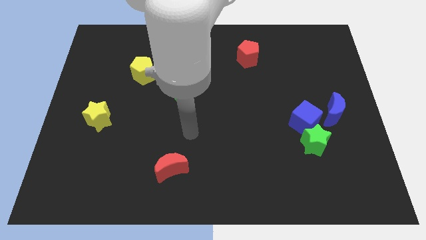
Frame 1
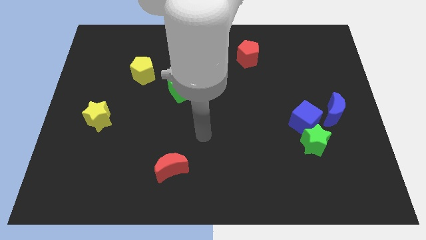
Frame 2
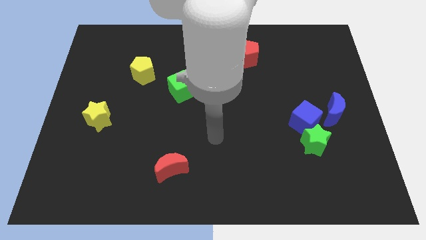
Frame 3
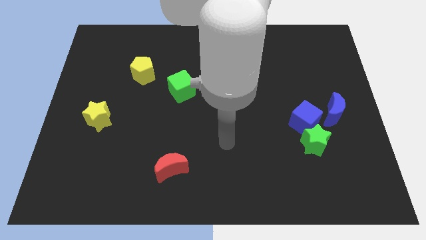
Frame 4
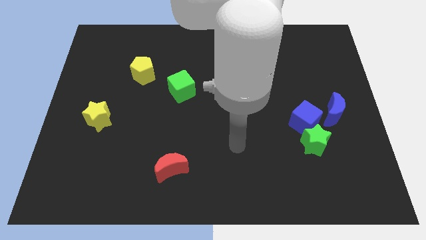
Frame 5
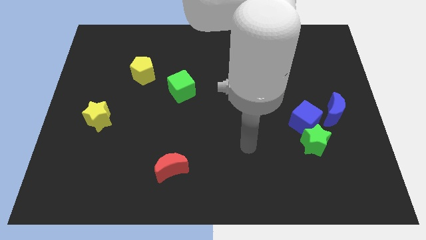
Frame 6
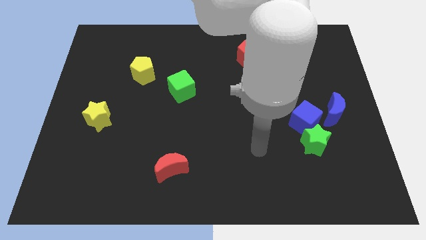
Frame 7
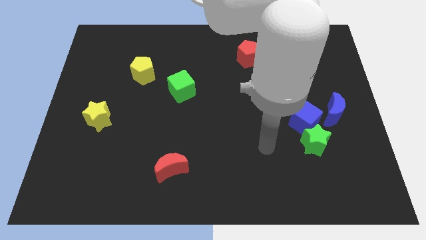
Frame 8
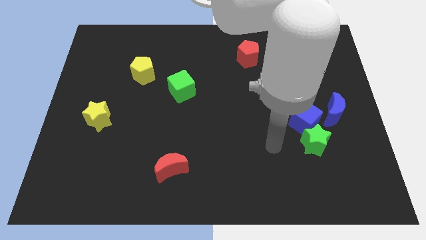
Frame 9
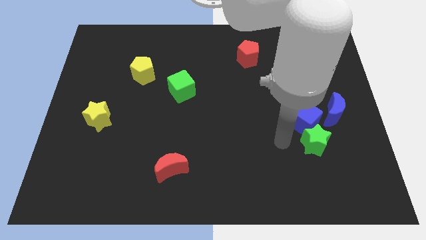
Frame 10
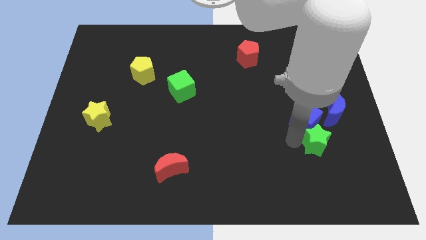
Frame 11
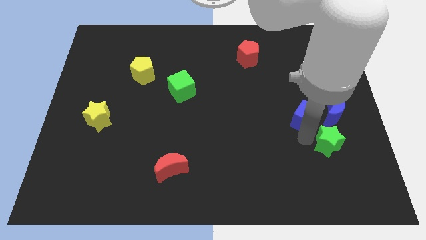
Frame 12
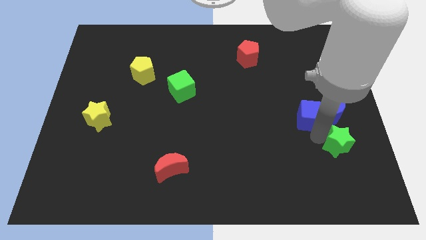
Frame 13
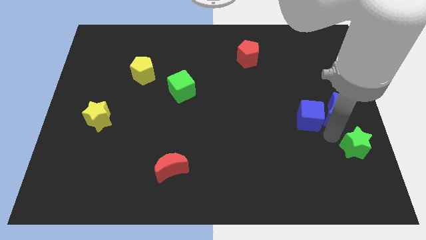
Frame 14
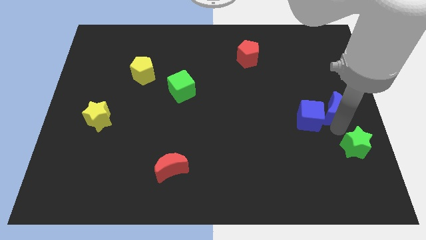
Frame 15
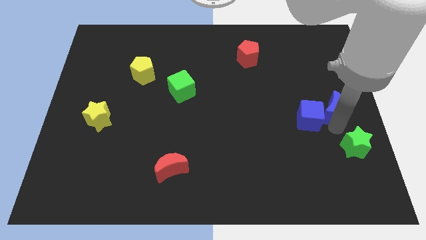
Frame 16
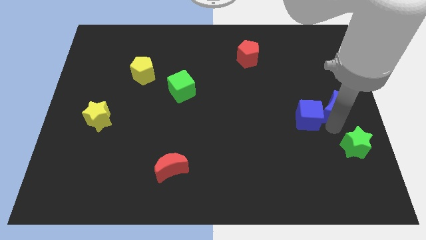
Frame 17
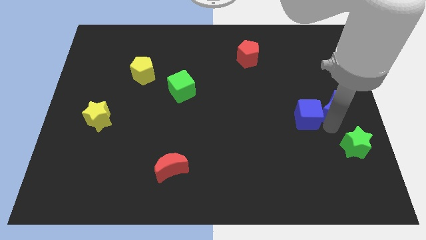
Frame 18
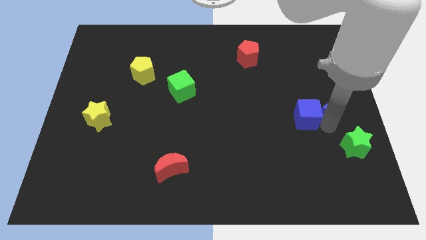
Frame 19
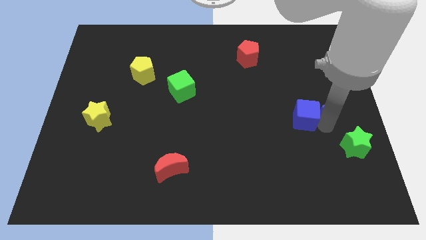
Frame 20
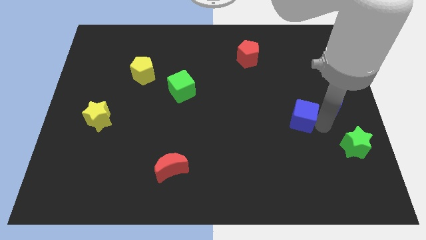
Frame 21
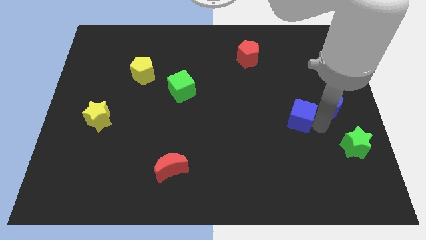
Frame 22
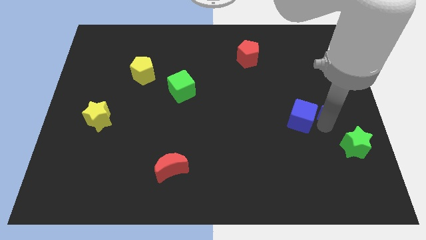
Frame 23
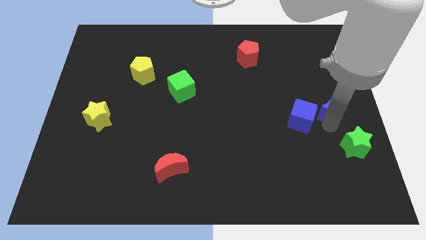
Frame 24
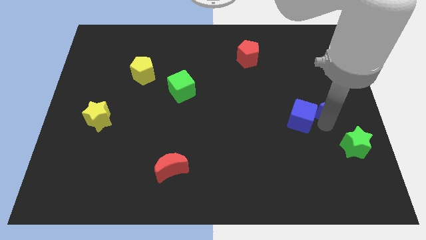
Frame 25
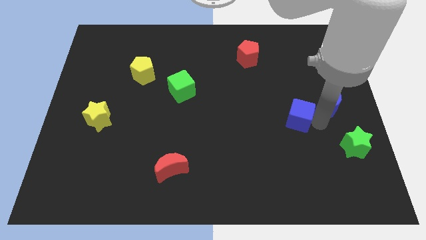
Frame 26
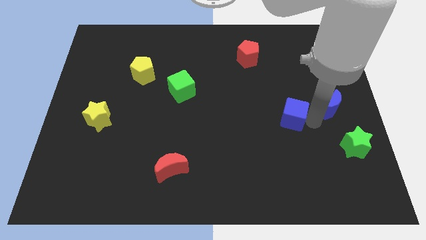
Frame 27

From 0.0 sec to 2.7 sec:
pull the blue cube apart from the green star and blue moon

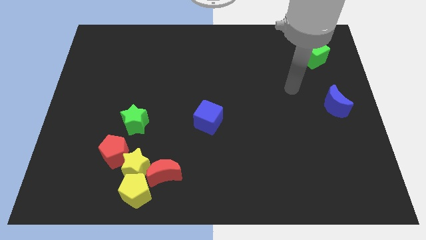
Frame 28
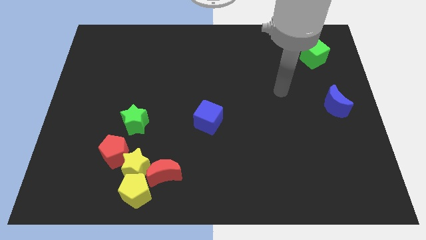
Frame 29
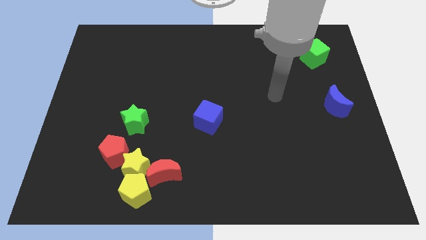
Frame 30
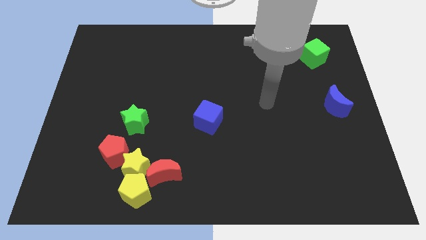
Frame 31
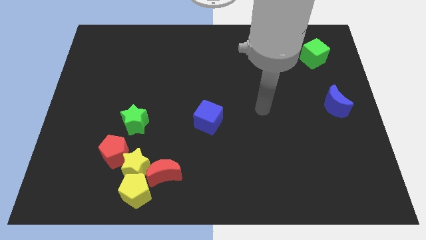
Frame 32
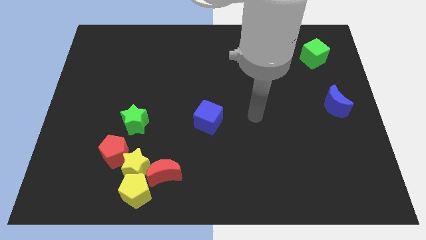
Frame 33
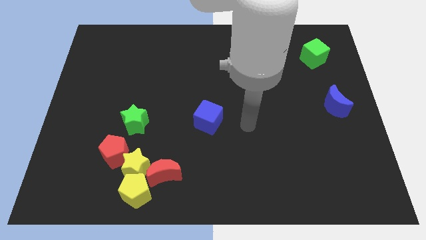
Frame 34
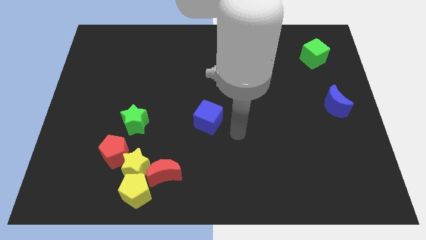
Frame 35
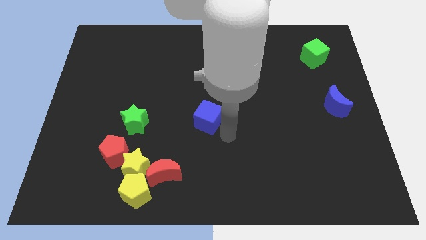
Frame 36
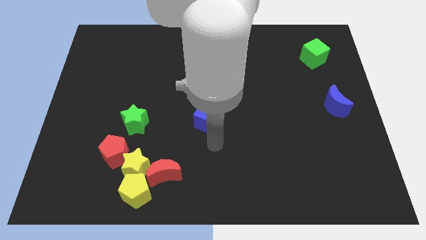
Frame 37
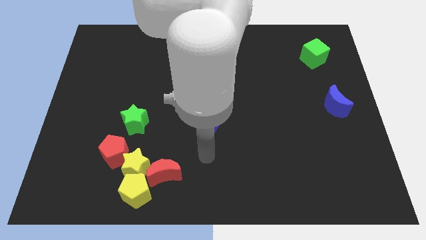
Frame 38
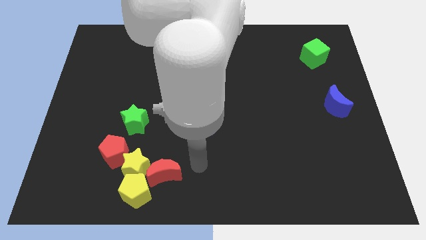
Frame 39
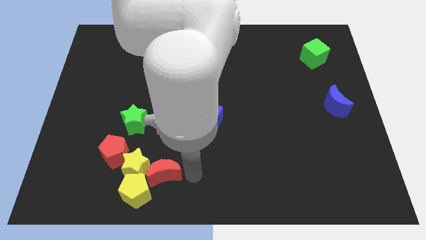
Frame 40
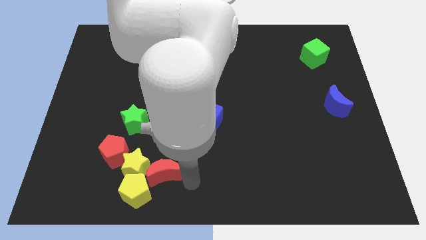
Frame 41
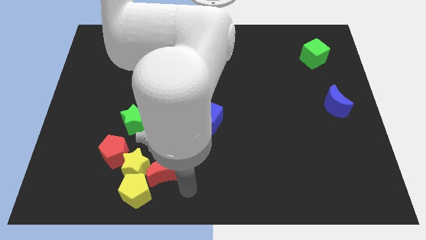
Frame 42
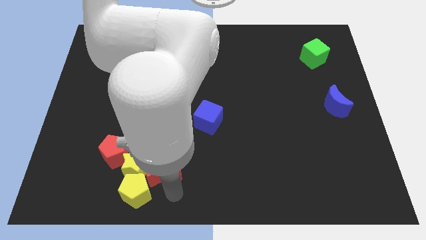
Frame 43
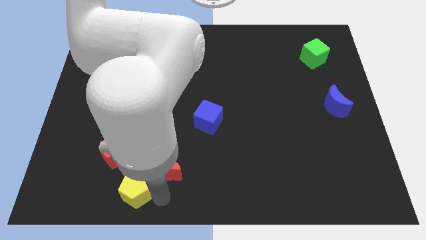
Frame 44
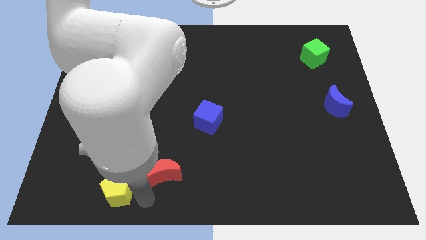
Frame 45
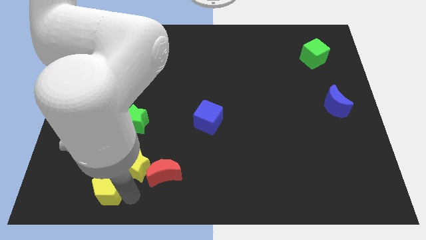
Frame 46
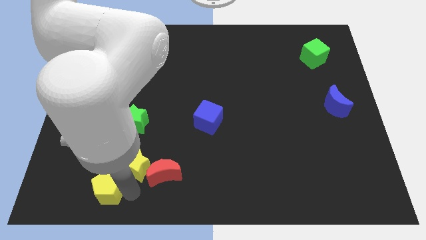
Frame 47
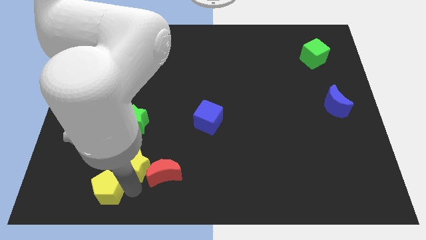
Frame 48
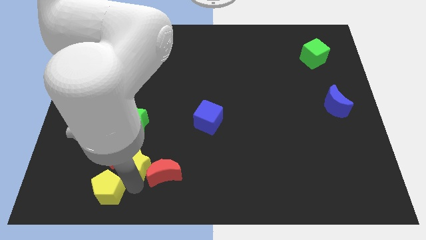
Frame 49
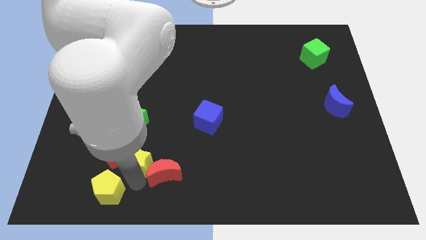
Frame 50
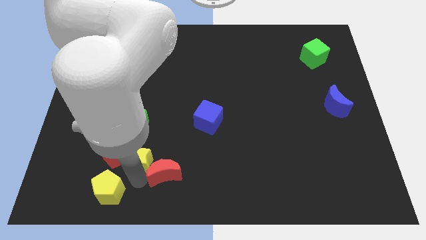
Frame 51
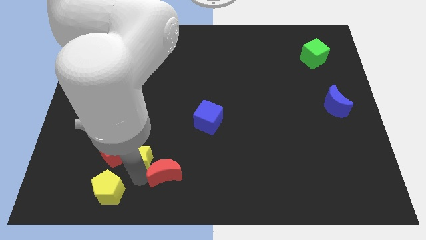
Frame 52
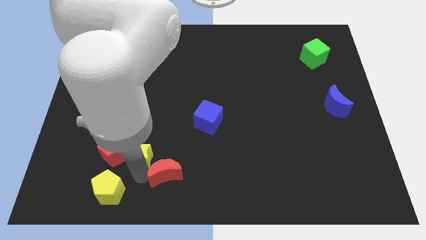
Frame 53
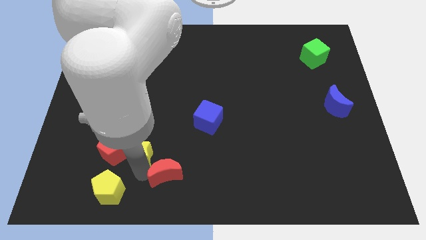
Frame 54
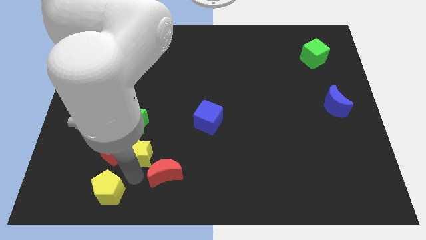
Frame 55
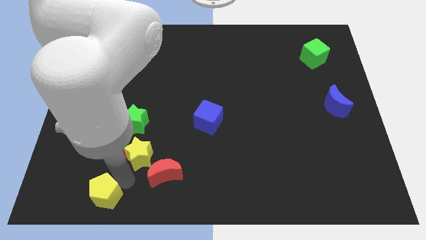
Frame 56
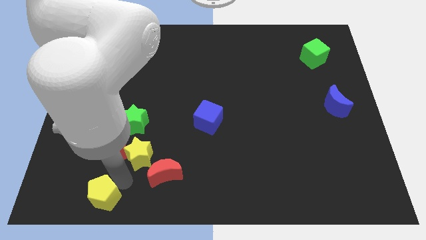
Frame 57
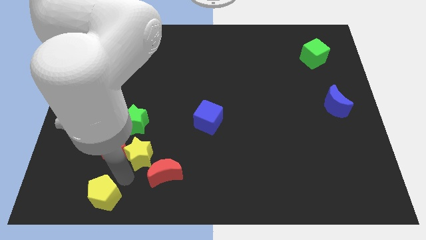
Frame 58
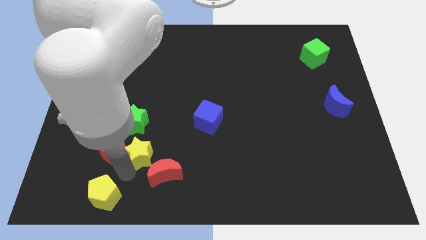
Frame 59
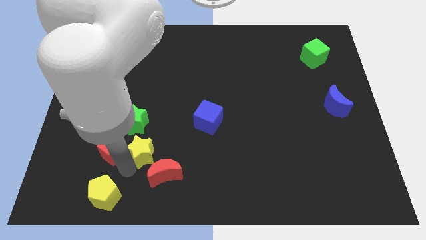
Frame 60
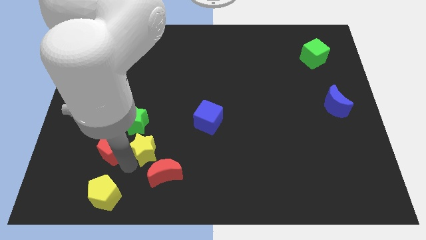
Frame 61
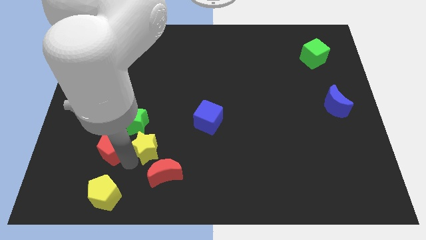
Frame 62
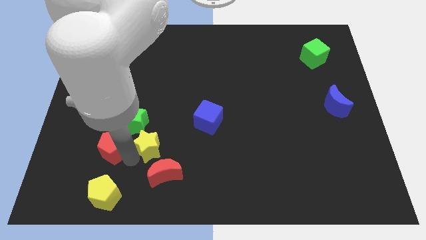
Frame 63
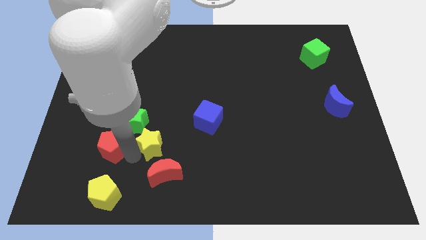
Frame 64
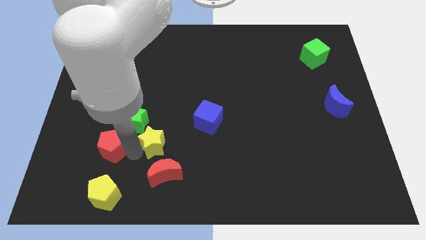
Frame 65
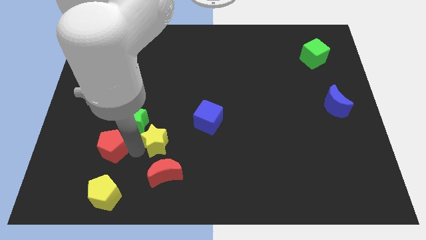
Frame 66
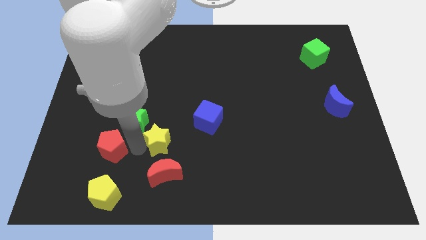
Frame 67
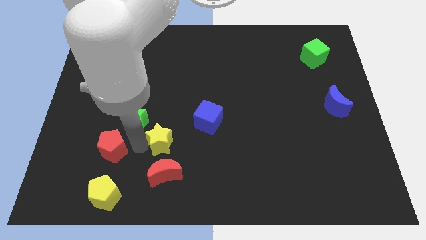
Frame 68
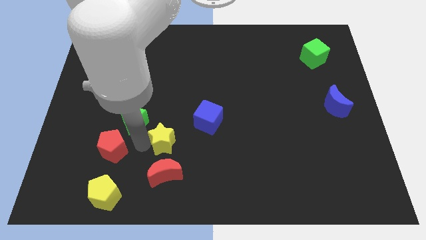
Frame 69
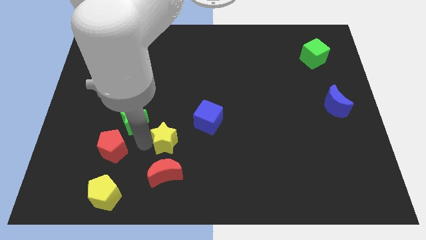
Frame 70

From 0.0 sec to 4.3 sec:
pull the yellow star apart from the clump

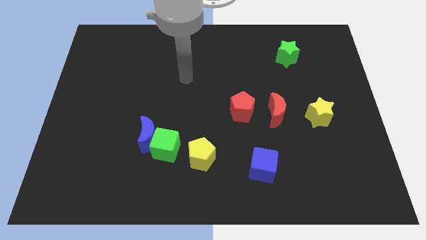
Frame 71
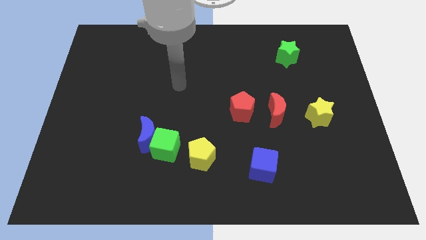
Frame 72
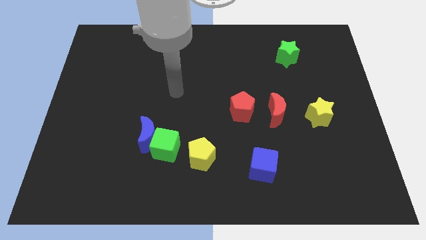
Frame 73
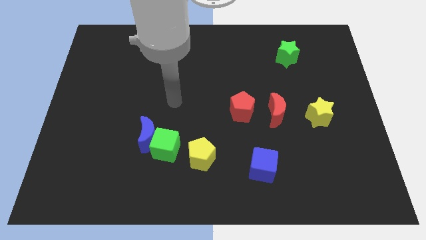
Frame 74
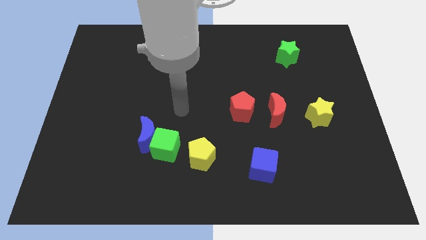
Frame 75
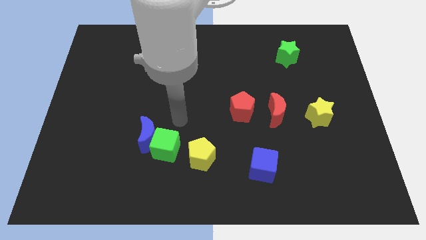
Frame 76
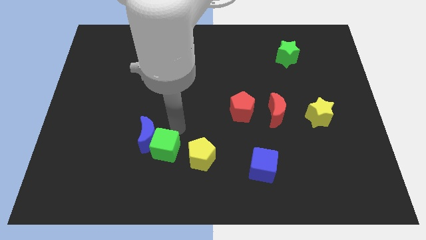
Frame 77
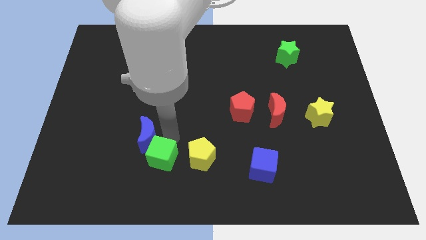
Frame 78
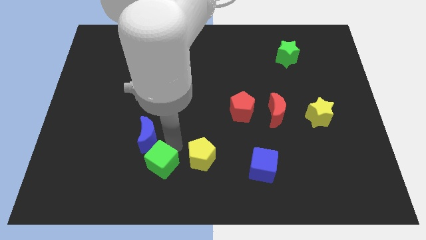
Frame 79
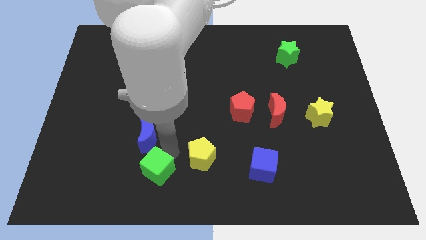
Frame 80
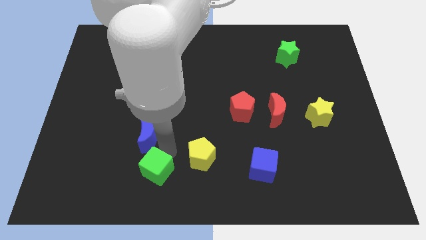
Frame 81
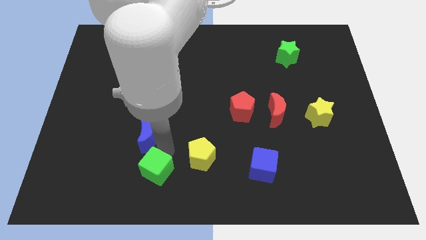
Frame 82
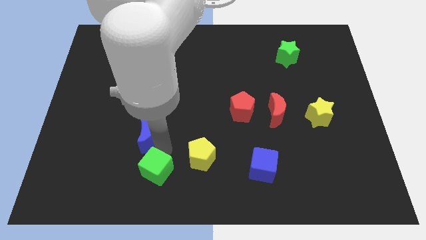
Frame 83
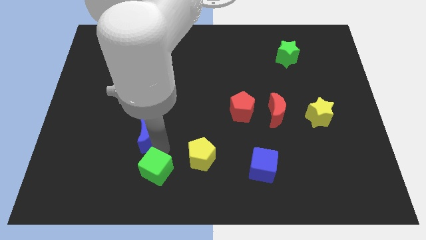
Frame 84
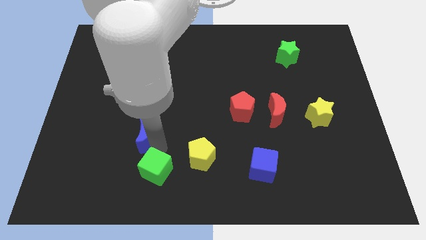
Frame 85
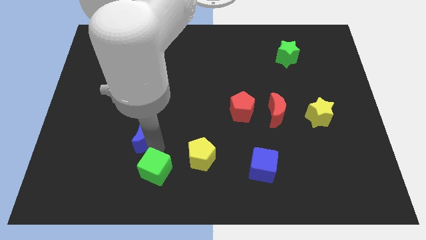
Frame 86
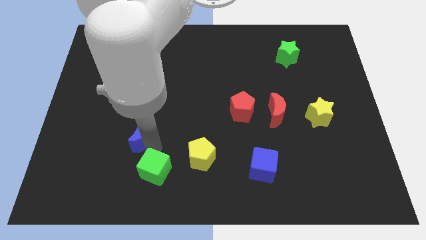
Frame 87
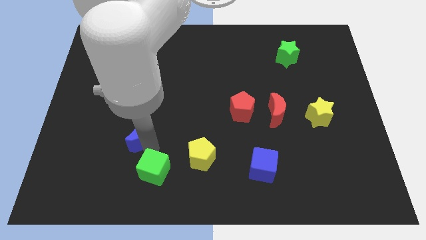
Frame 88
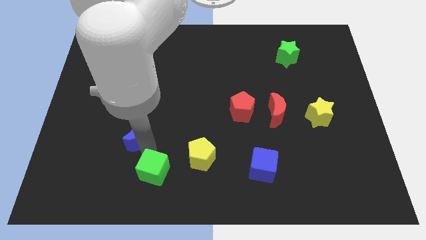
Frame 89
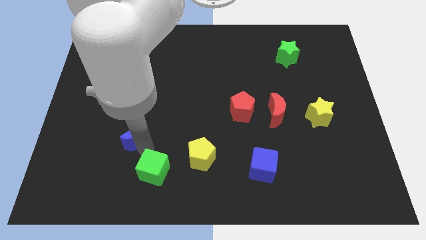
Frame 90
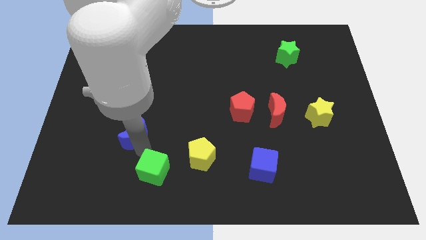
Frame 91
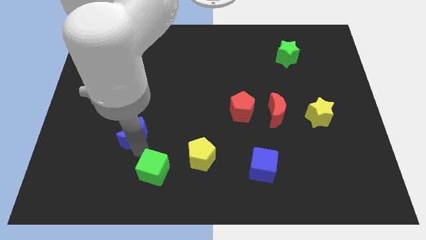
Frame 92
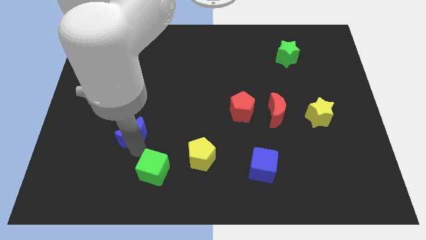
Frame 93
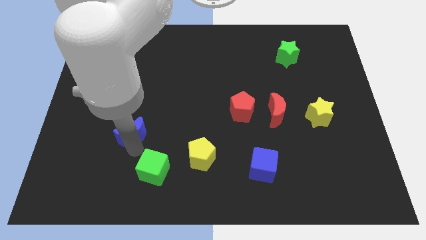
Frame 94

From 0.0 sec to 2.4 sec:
move the blue moon away from the green cube
